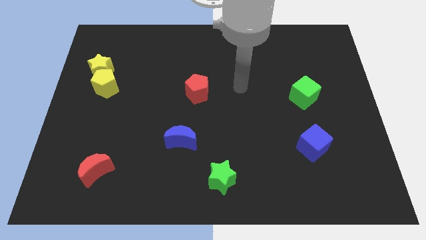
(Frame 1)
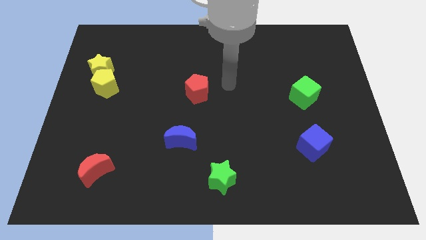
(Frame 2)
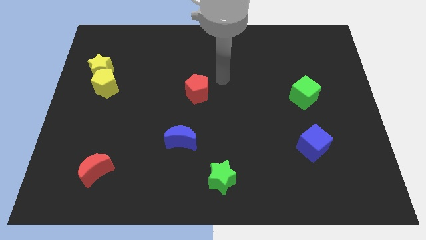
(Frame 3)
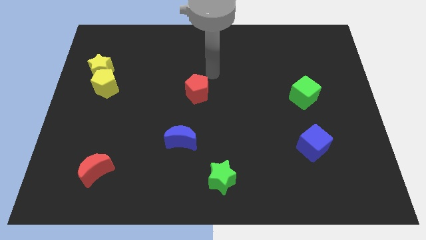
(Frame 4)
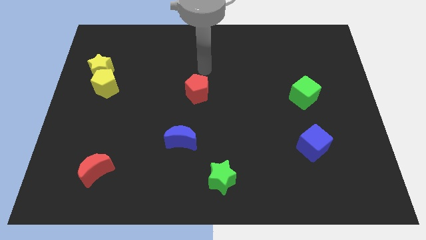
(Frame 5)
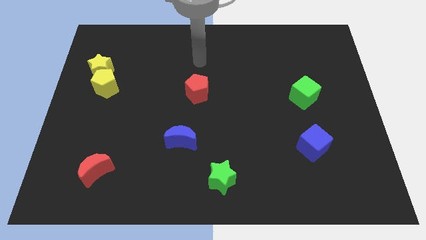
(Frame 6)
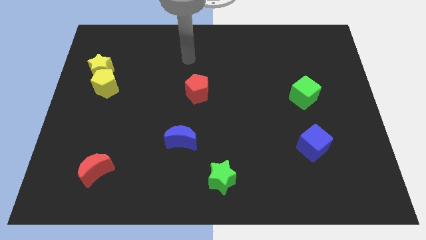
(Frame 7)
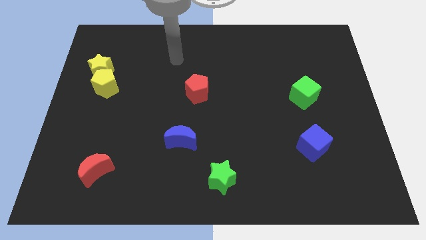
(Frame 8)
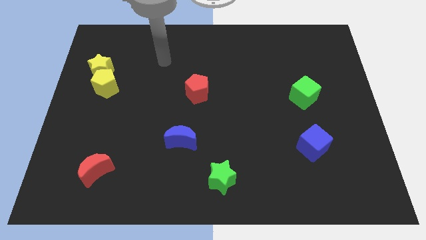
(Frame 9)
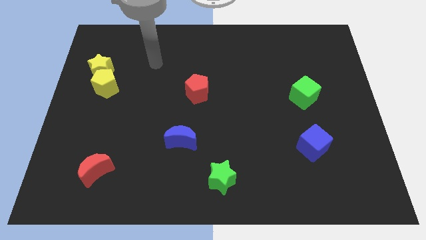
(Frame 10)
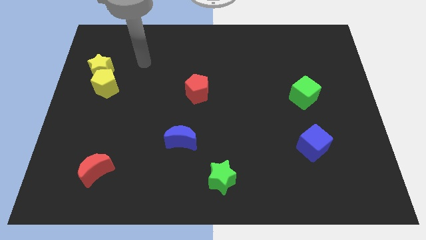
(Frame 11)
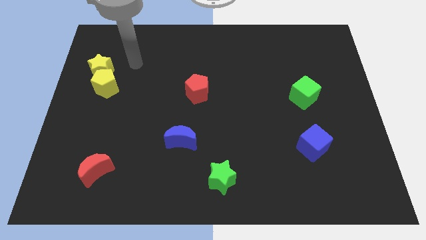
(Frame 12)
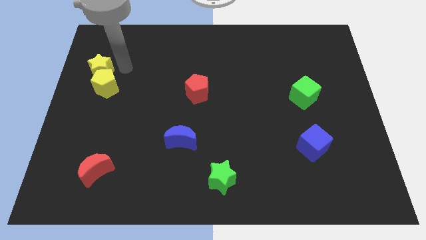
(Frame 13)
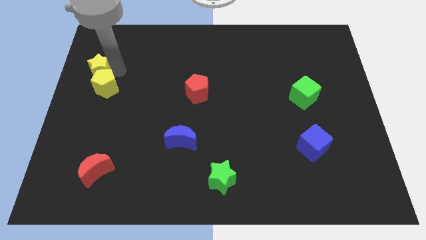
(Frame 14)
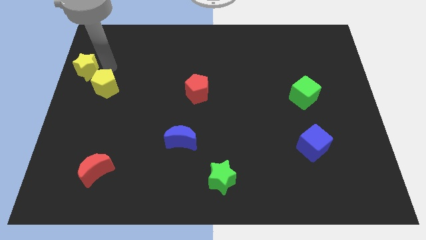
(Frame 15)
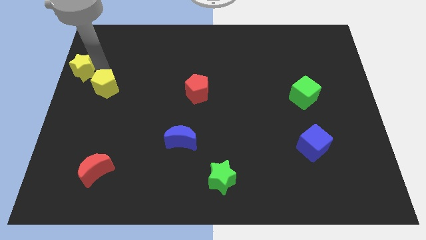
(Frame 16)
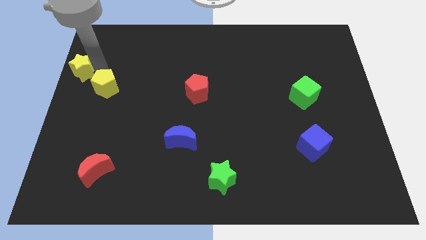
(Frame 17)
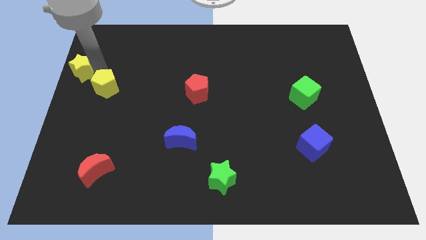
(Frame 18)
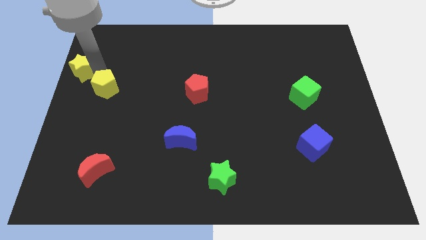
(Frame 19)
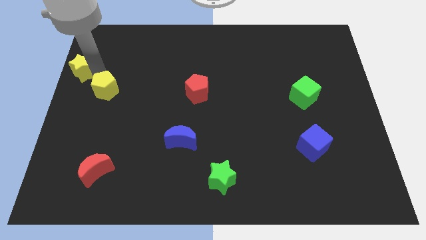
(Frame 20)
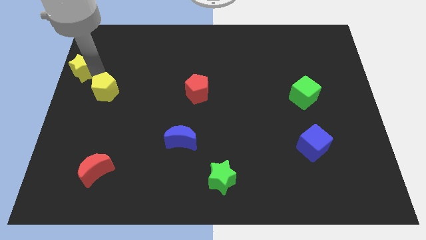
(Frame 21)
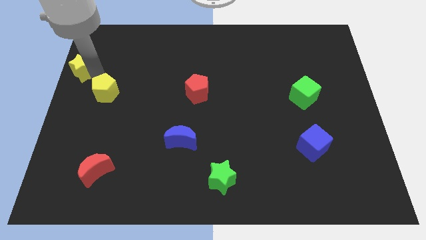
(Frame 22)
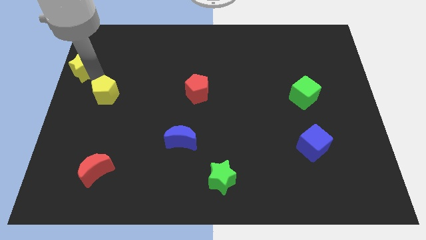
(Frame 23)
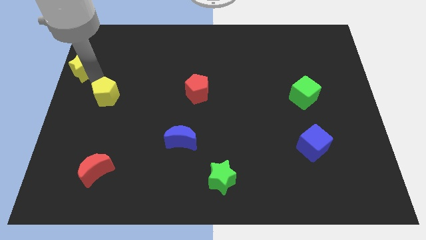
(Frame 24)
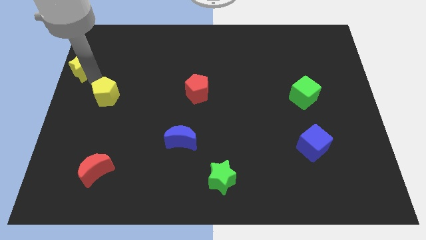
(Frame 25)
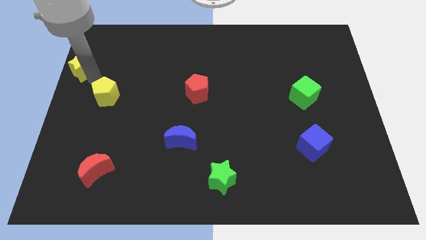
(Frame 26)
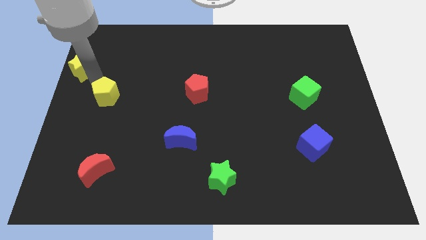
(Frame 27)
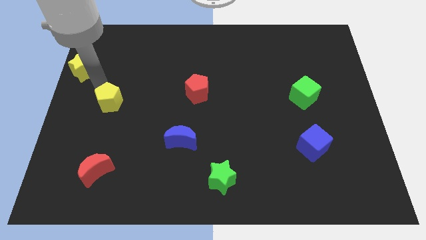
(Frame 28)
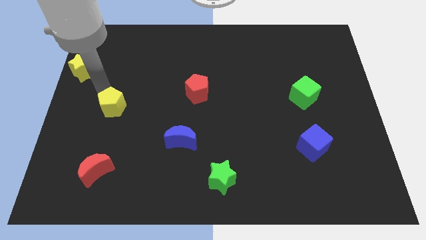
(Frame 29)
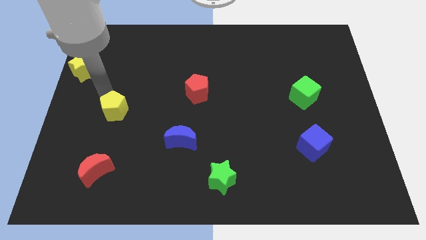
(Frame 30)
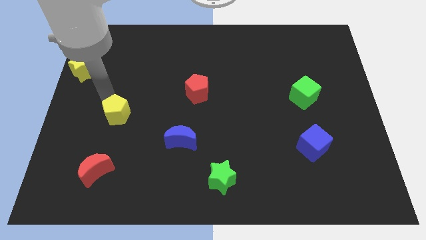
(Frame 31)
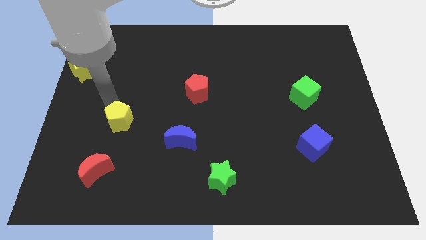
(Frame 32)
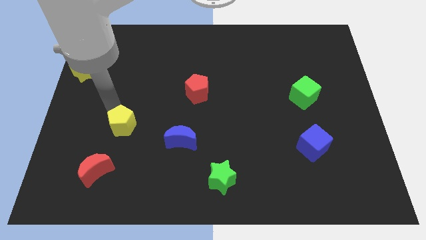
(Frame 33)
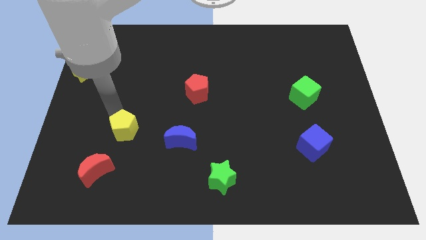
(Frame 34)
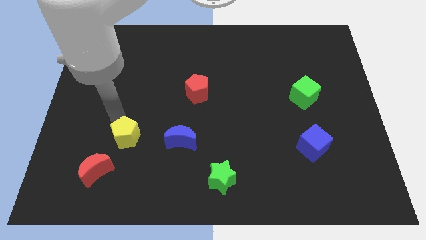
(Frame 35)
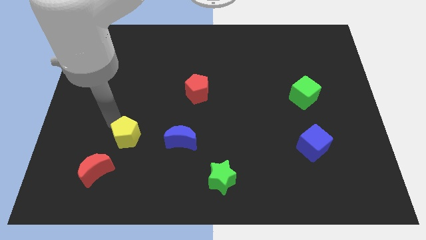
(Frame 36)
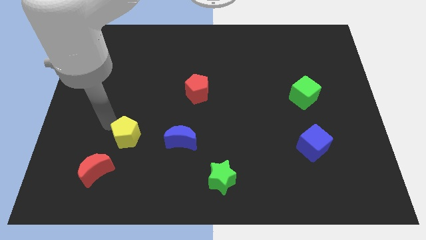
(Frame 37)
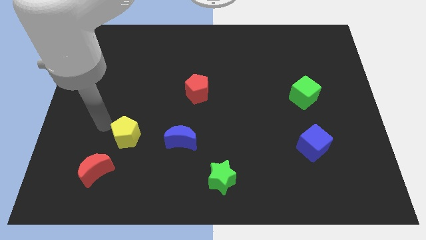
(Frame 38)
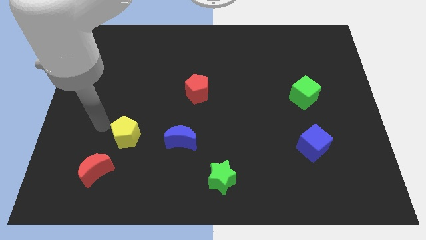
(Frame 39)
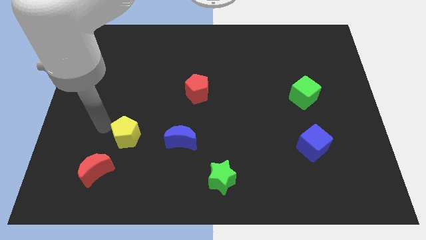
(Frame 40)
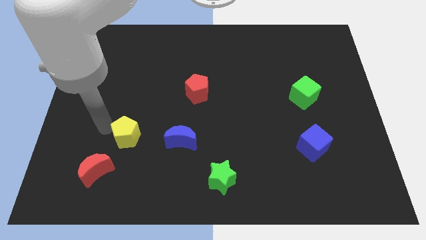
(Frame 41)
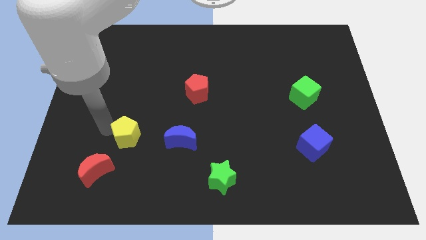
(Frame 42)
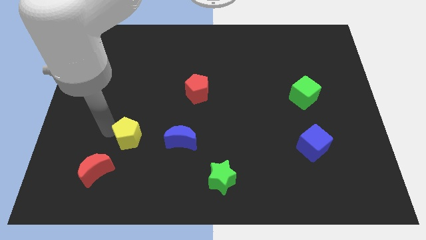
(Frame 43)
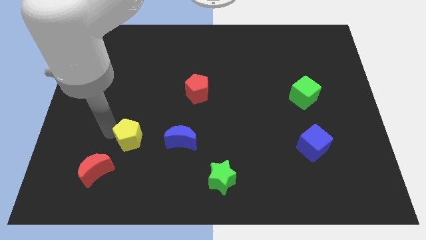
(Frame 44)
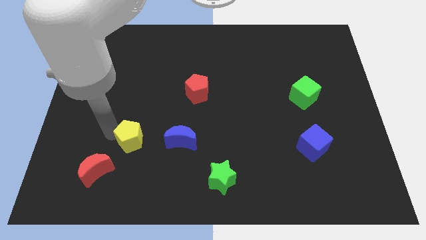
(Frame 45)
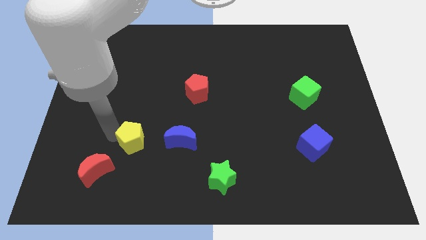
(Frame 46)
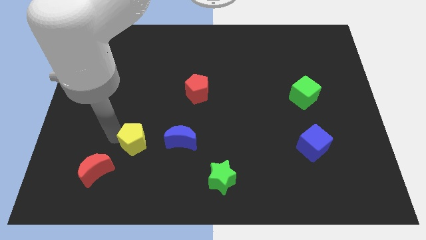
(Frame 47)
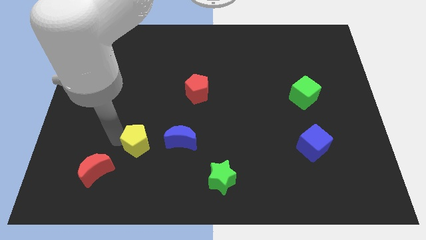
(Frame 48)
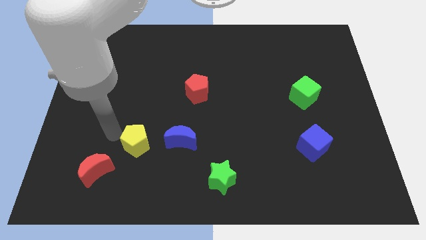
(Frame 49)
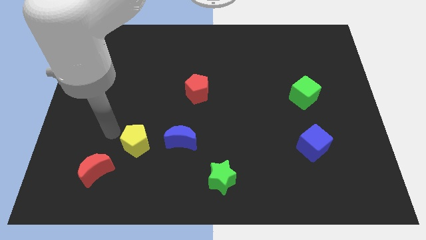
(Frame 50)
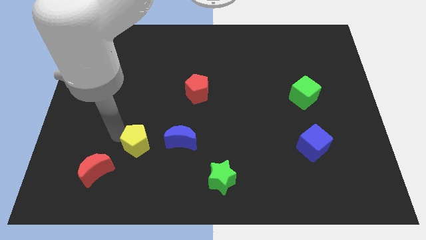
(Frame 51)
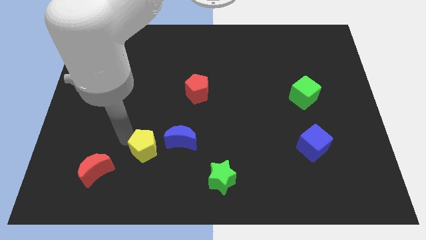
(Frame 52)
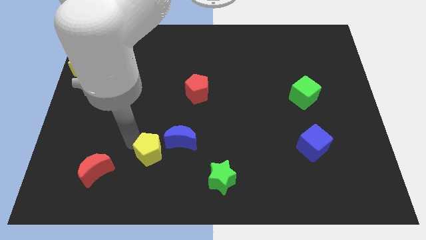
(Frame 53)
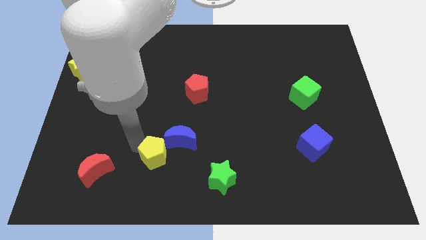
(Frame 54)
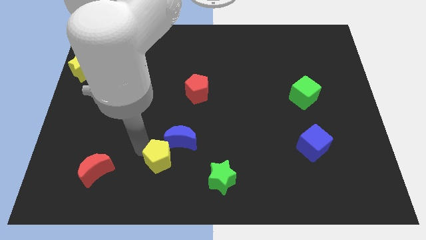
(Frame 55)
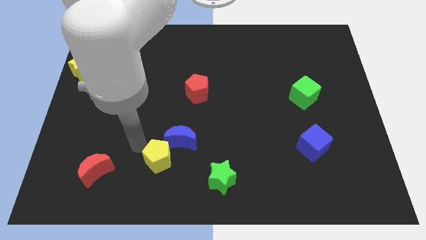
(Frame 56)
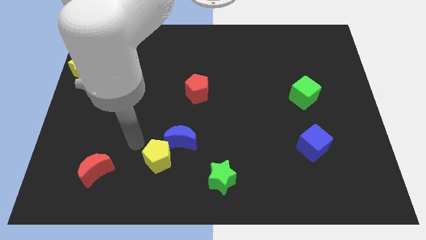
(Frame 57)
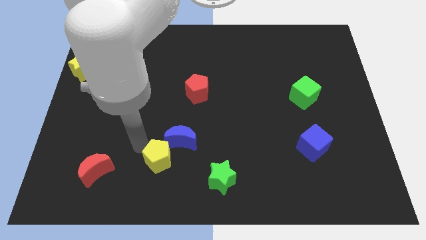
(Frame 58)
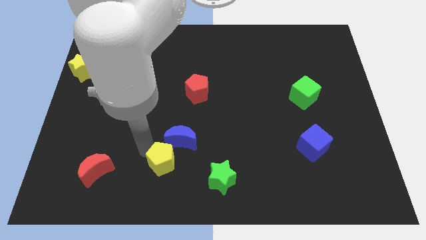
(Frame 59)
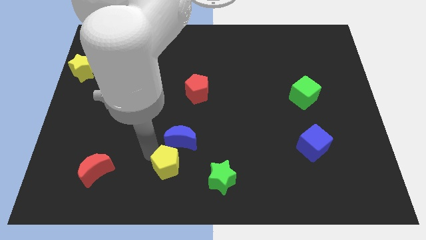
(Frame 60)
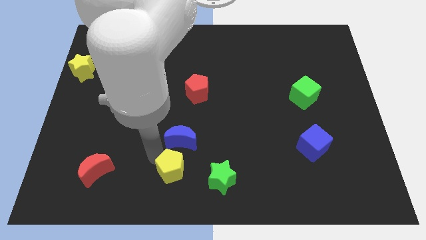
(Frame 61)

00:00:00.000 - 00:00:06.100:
slide the yellow pentagon to the bottom side
